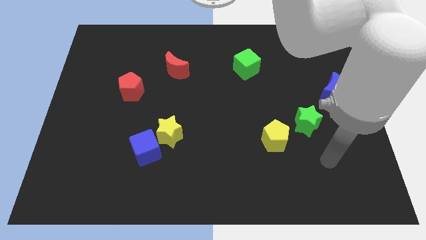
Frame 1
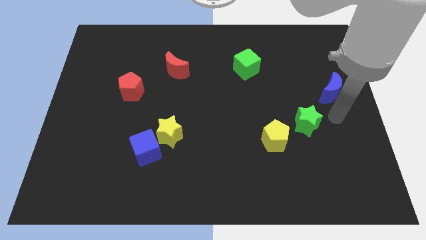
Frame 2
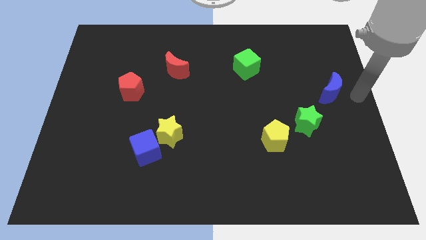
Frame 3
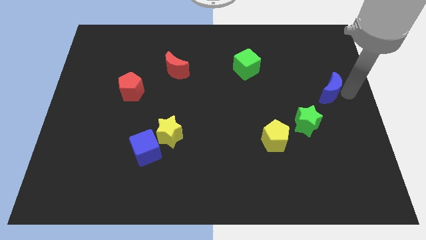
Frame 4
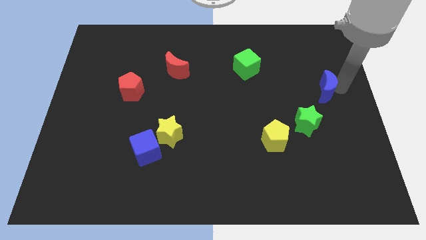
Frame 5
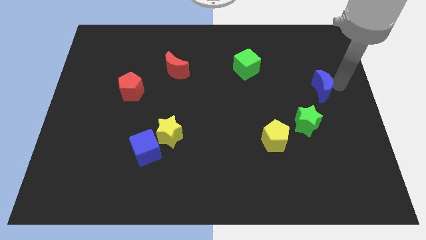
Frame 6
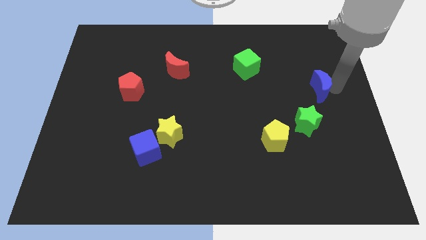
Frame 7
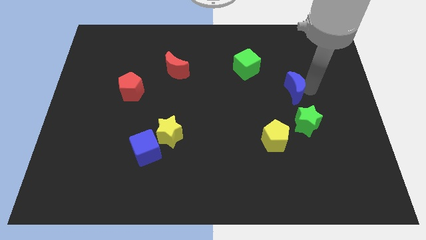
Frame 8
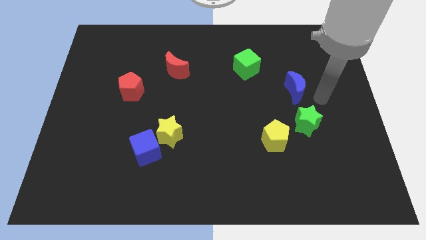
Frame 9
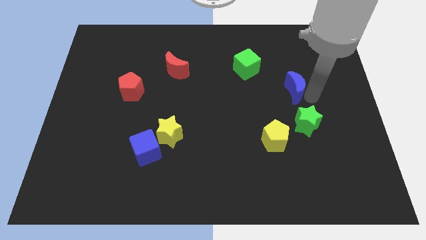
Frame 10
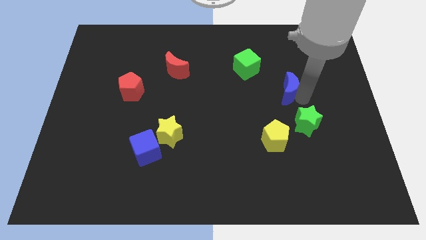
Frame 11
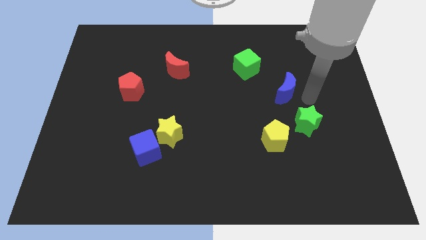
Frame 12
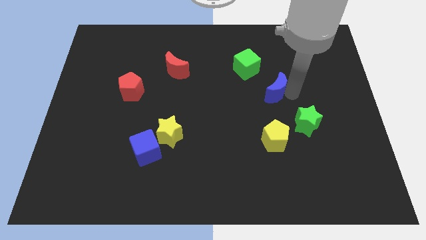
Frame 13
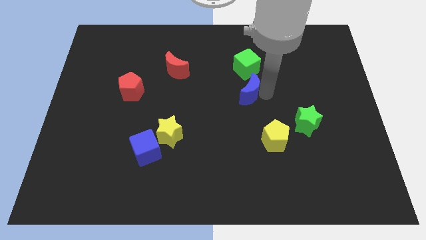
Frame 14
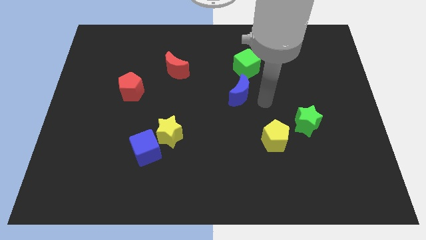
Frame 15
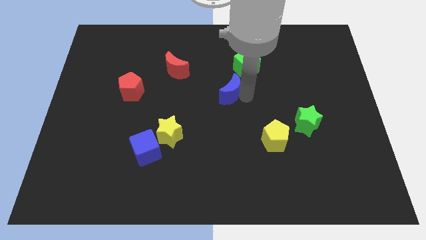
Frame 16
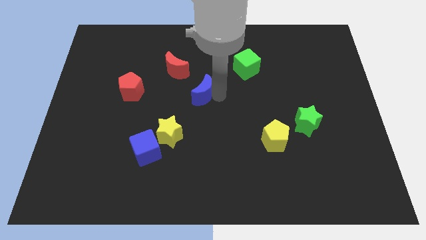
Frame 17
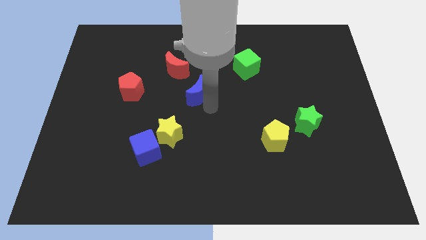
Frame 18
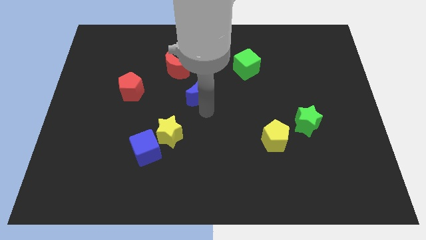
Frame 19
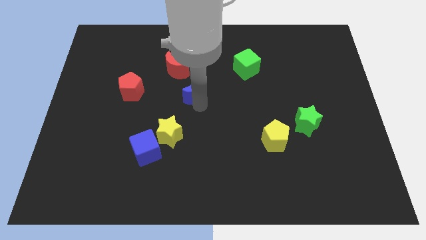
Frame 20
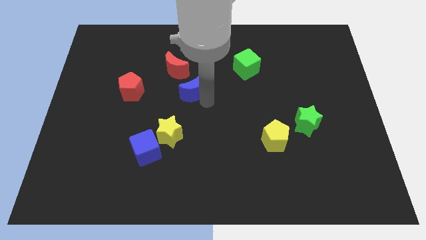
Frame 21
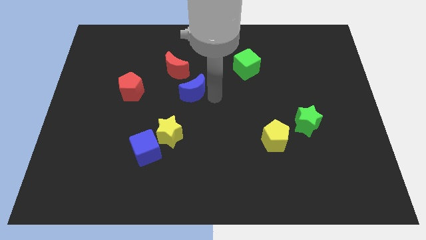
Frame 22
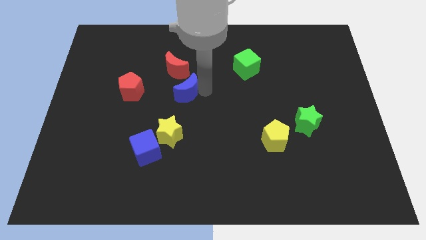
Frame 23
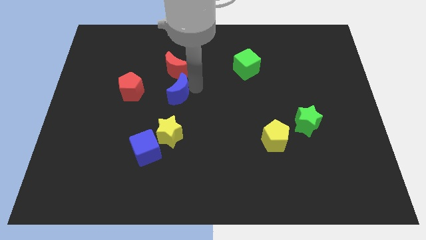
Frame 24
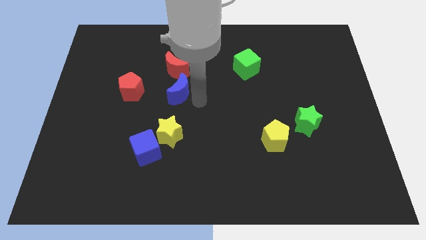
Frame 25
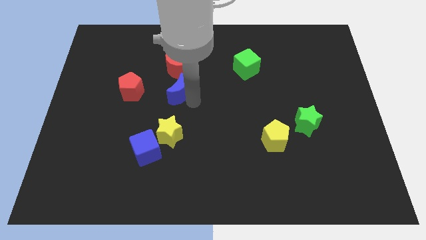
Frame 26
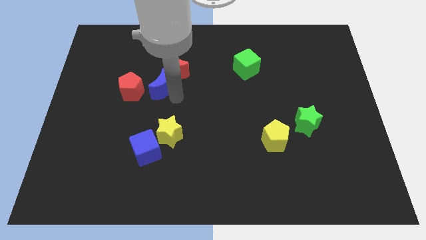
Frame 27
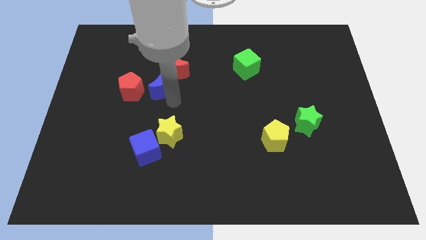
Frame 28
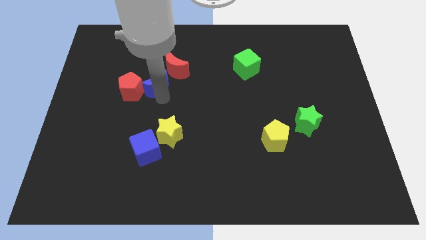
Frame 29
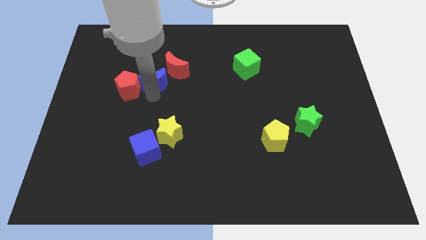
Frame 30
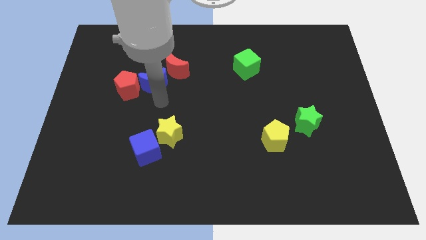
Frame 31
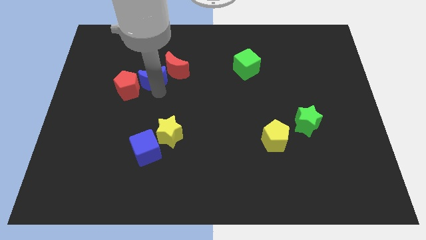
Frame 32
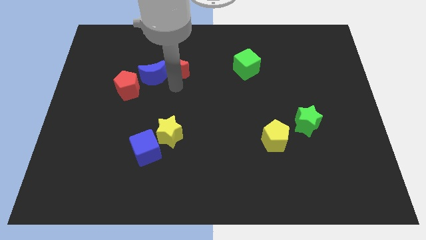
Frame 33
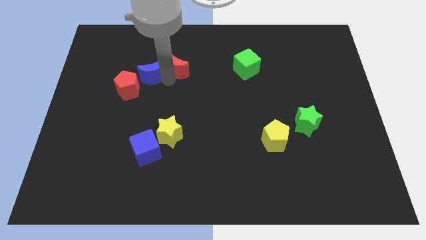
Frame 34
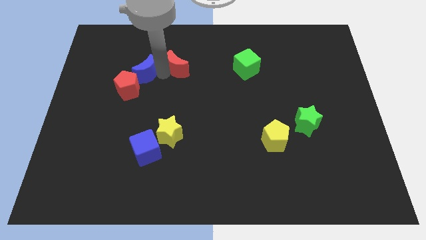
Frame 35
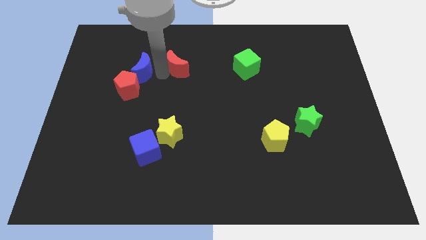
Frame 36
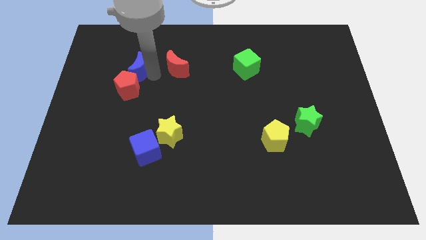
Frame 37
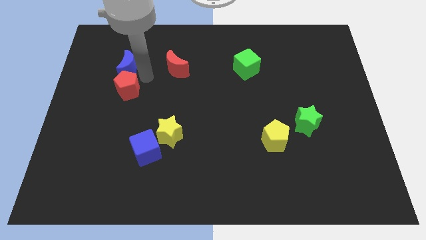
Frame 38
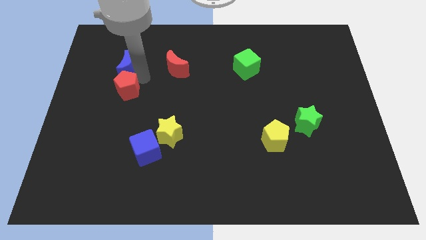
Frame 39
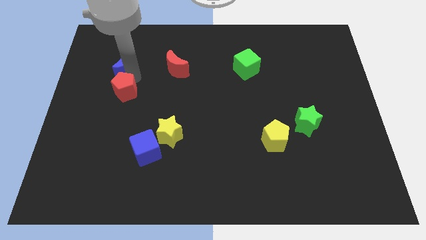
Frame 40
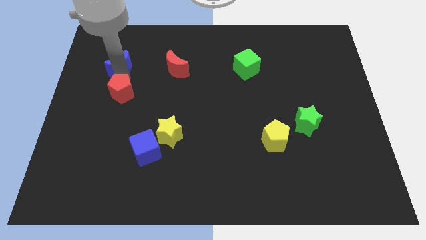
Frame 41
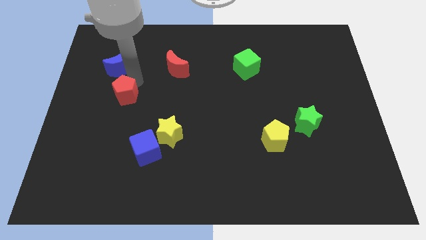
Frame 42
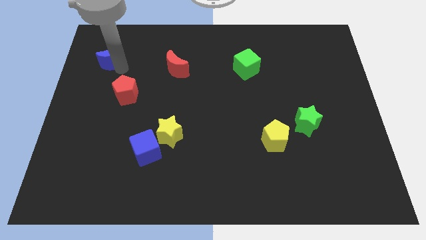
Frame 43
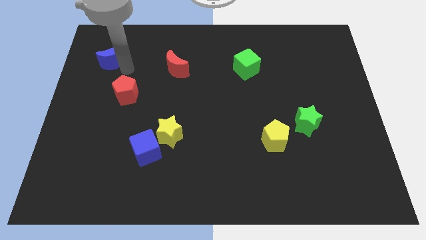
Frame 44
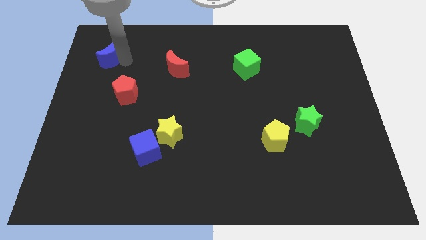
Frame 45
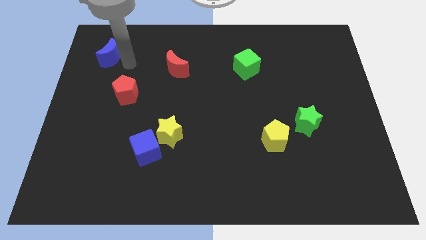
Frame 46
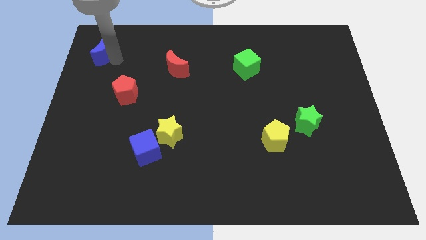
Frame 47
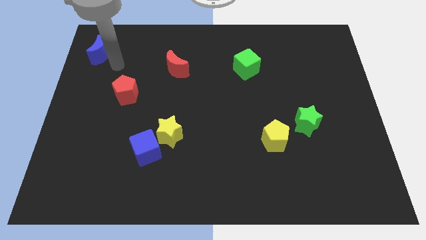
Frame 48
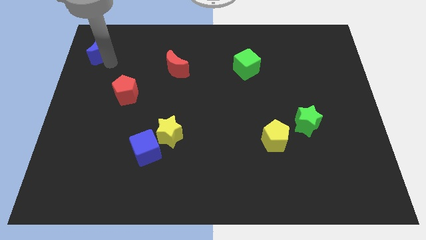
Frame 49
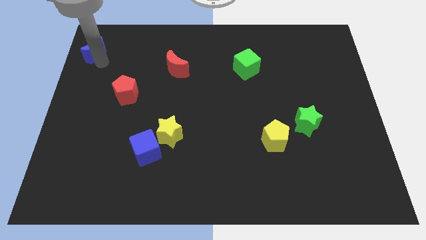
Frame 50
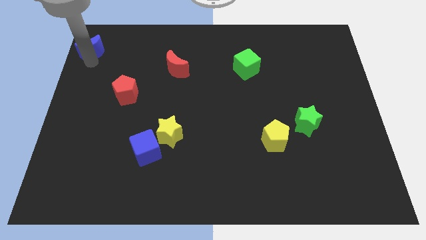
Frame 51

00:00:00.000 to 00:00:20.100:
push the blue moon to the upper left corner

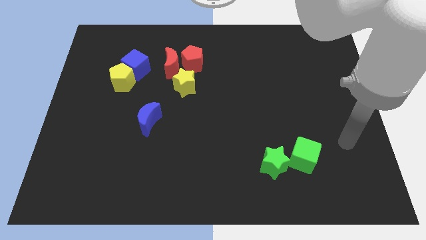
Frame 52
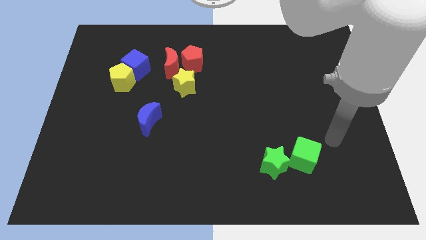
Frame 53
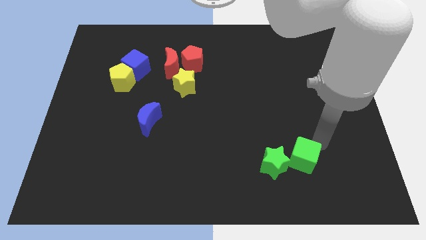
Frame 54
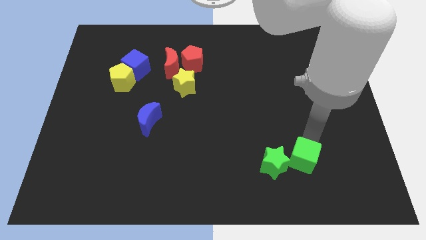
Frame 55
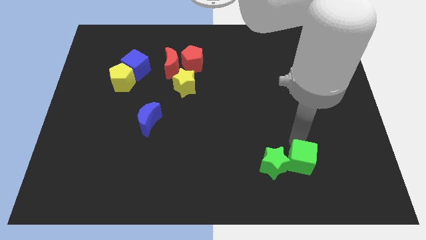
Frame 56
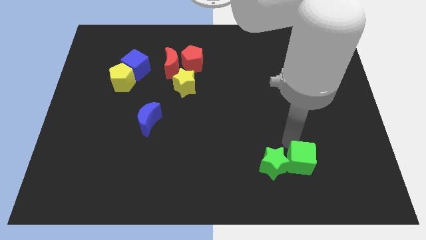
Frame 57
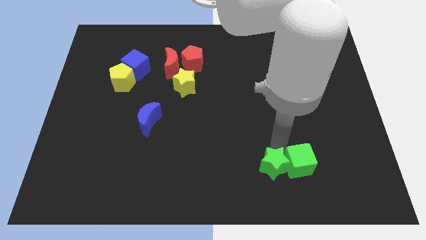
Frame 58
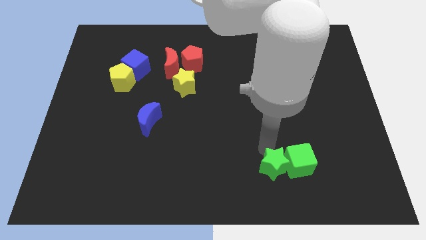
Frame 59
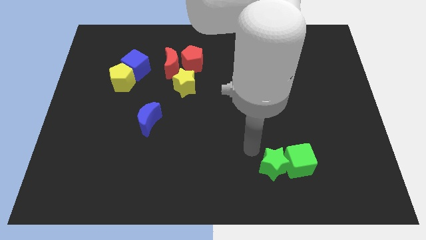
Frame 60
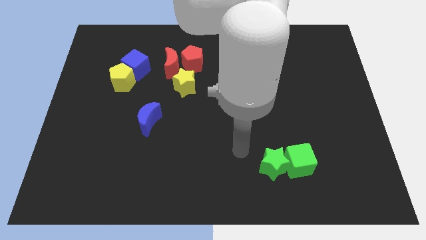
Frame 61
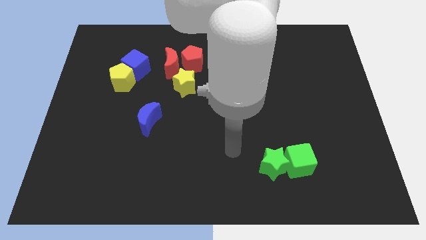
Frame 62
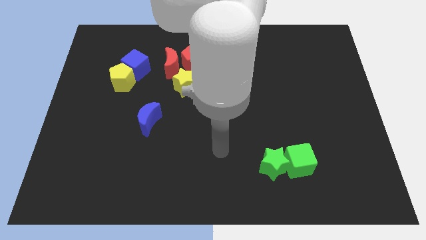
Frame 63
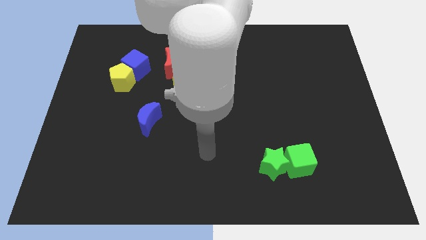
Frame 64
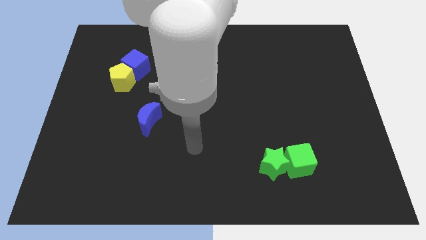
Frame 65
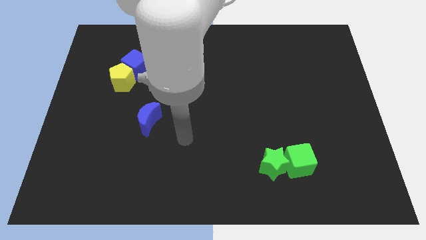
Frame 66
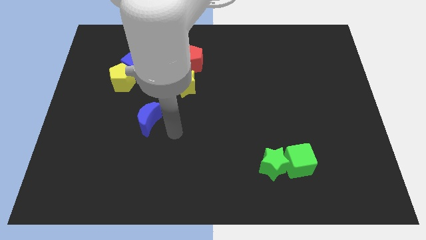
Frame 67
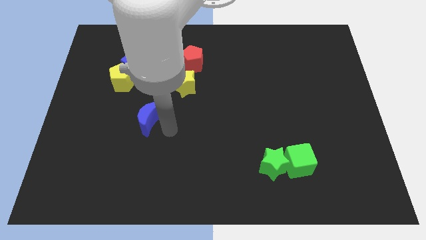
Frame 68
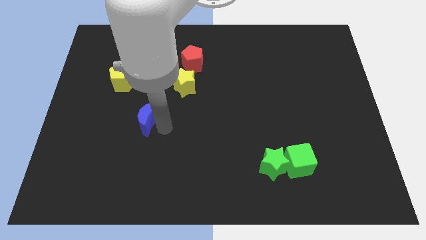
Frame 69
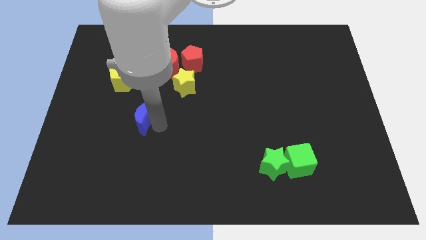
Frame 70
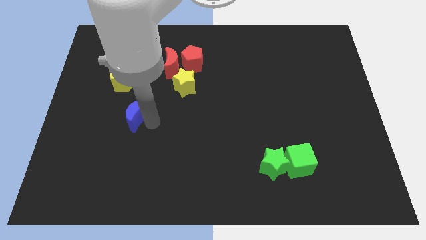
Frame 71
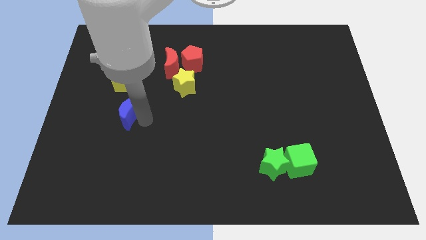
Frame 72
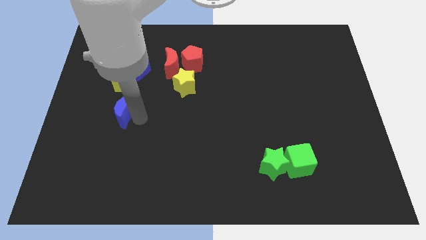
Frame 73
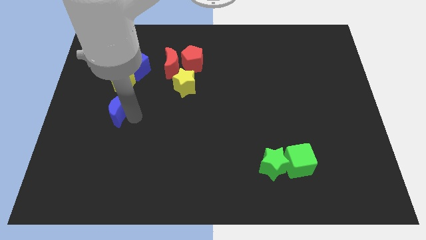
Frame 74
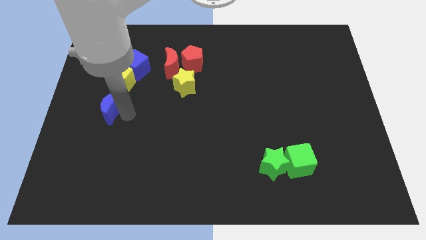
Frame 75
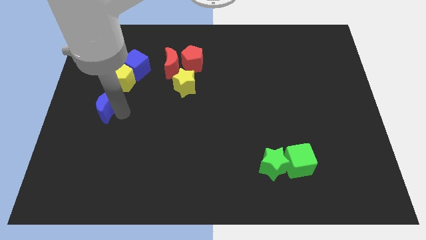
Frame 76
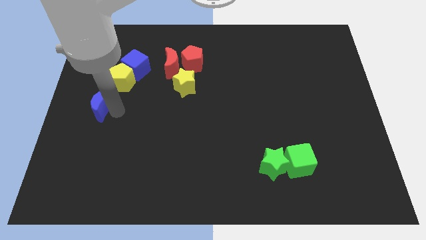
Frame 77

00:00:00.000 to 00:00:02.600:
move the blue moon to the left side of the board

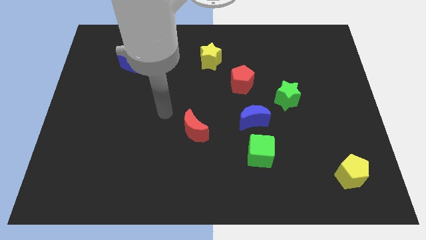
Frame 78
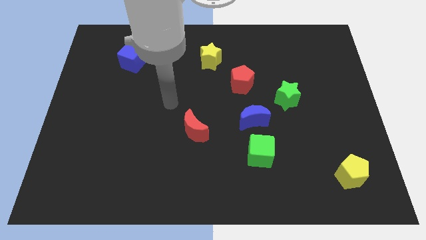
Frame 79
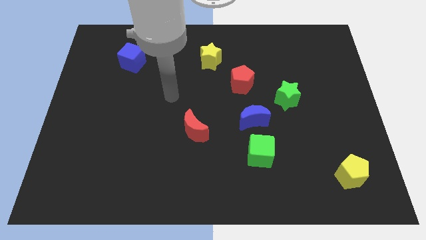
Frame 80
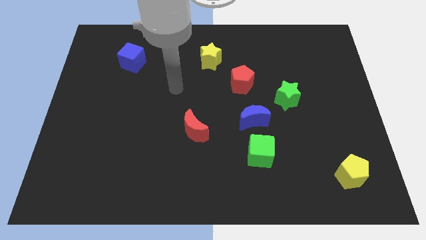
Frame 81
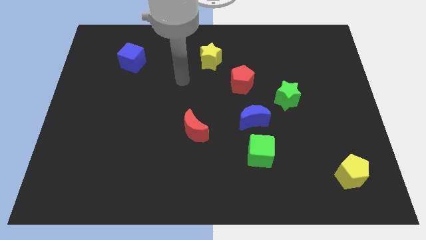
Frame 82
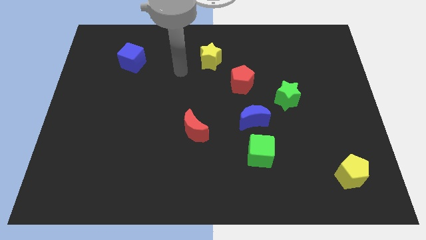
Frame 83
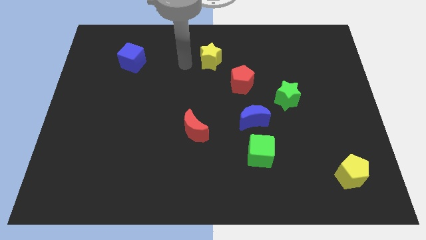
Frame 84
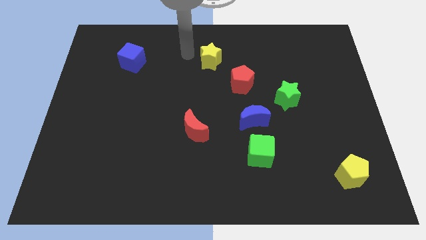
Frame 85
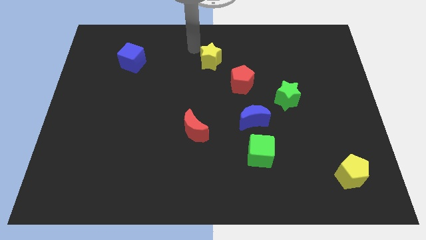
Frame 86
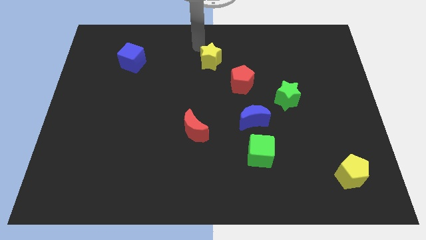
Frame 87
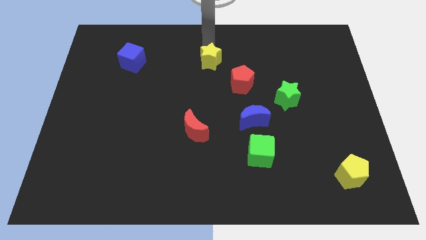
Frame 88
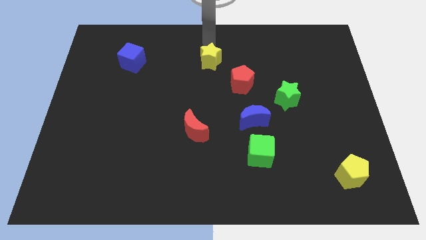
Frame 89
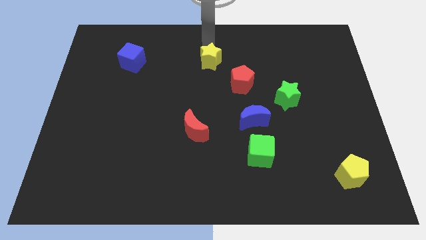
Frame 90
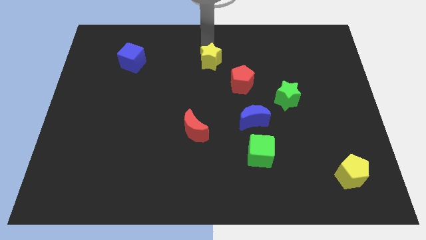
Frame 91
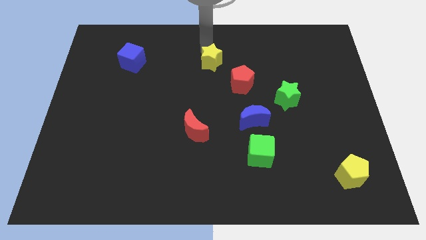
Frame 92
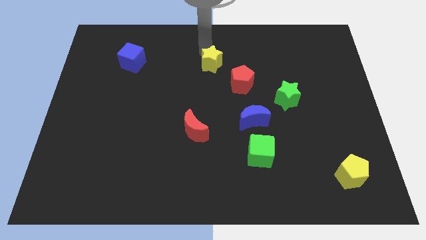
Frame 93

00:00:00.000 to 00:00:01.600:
slide the yellow star to the center
